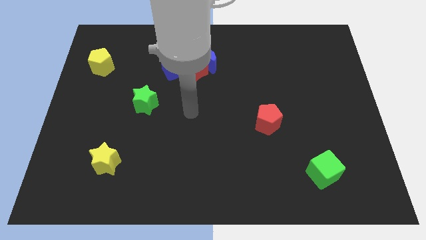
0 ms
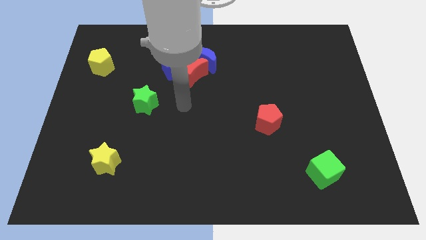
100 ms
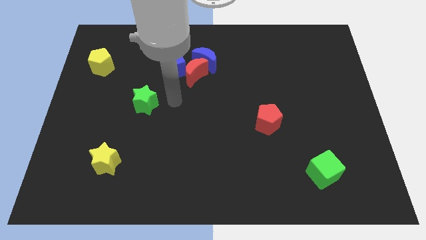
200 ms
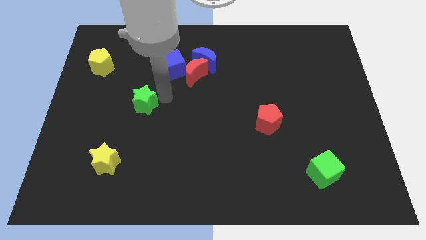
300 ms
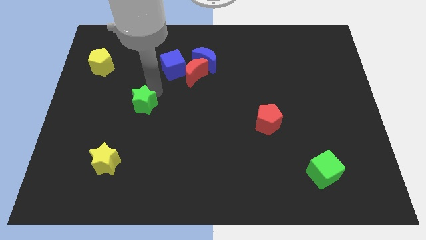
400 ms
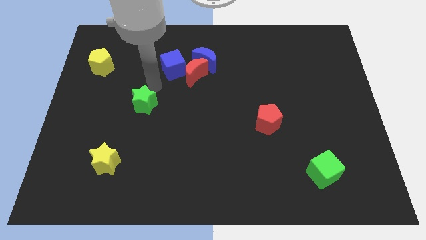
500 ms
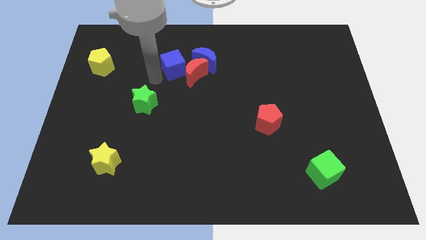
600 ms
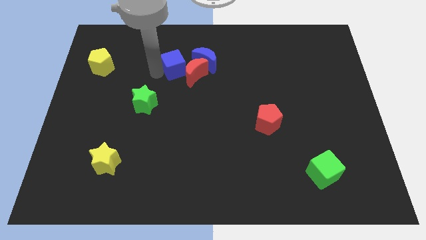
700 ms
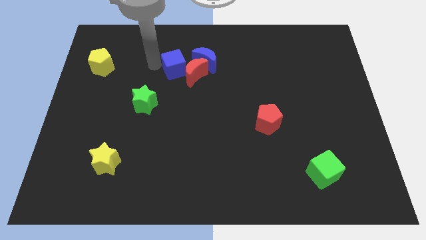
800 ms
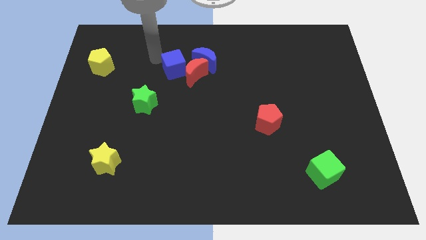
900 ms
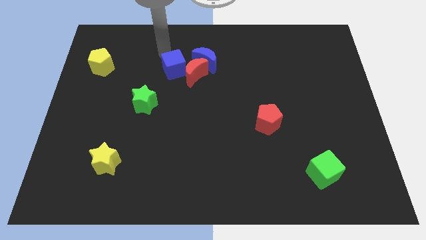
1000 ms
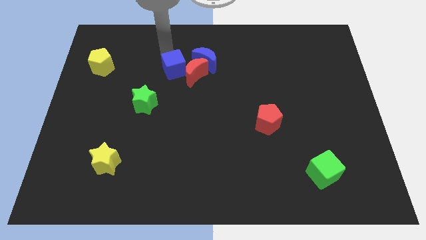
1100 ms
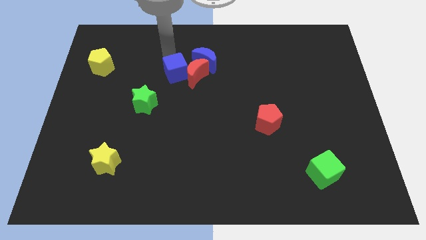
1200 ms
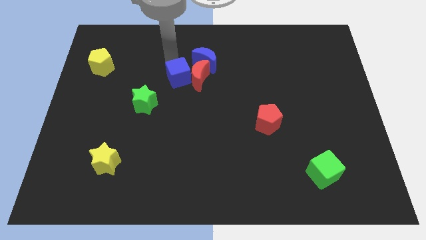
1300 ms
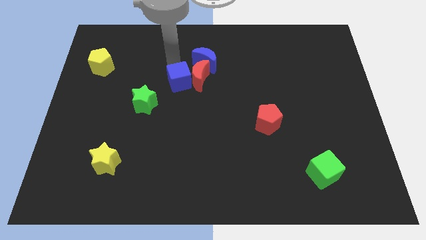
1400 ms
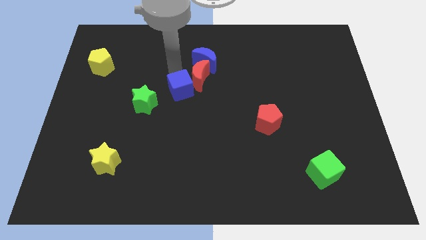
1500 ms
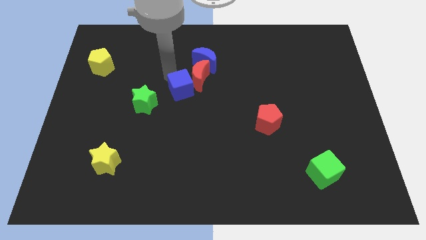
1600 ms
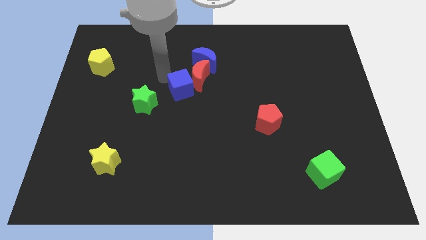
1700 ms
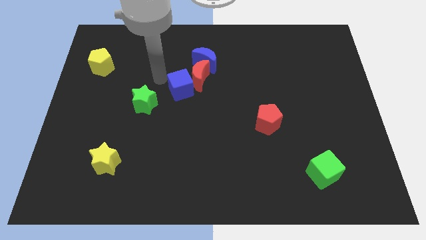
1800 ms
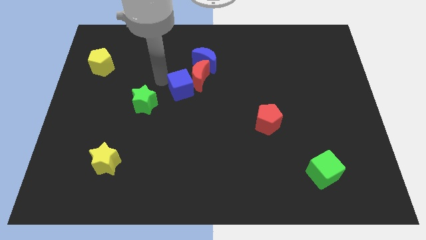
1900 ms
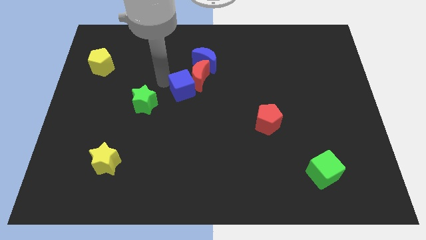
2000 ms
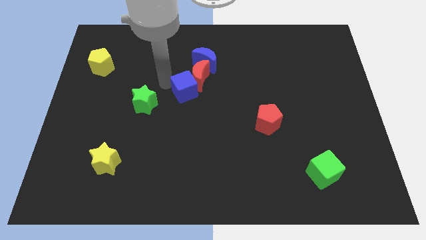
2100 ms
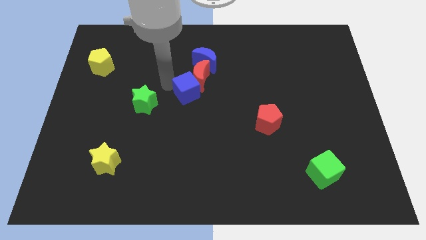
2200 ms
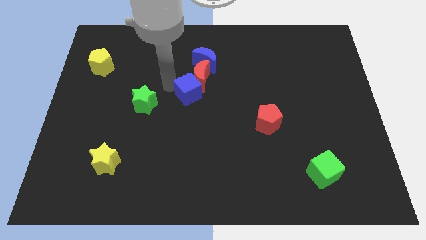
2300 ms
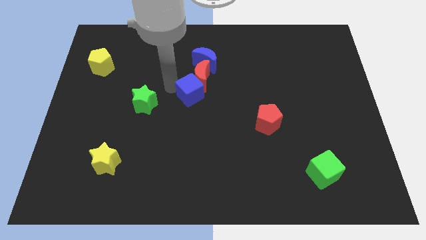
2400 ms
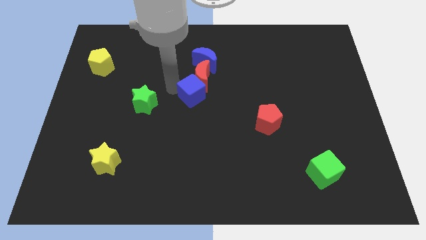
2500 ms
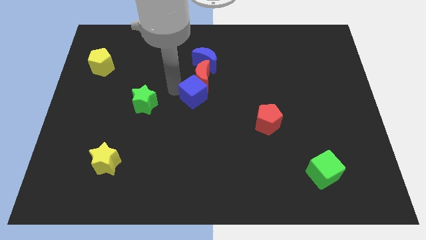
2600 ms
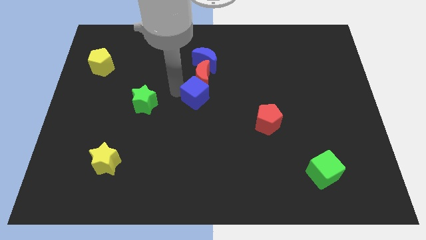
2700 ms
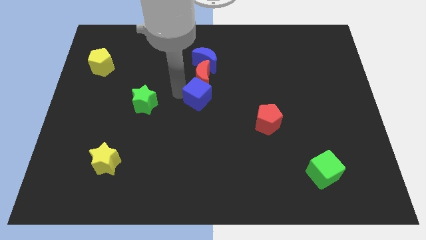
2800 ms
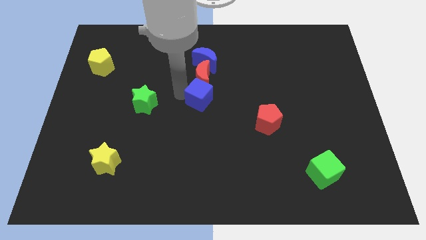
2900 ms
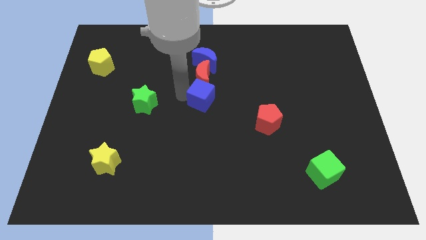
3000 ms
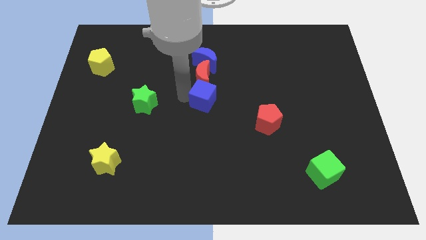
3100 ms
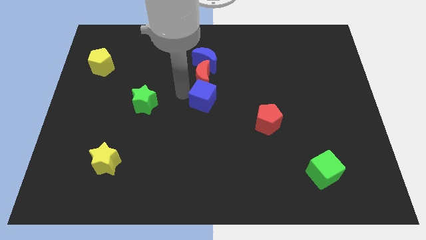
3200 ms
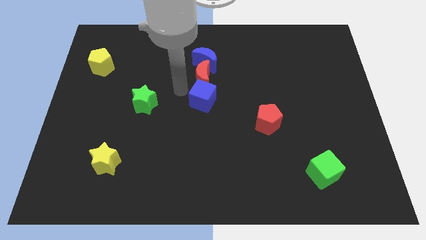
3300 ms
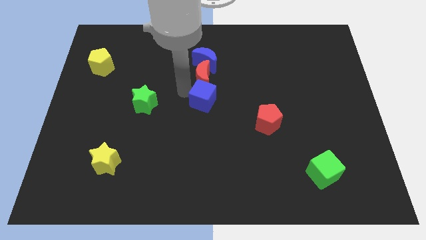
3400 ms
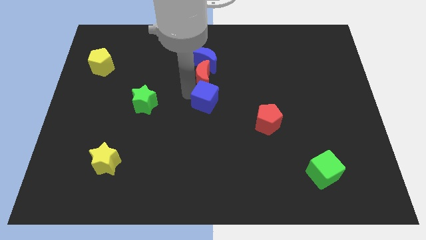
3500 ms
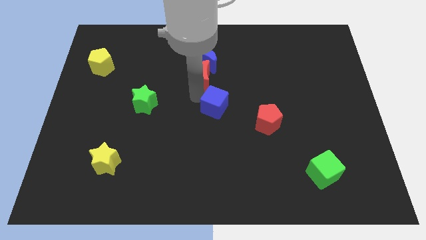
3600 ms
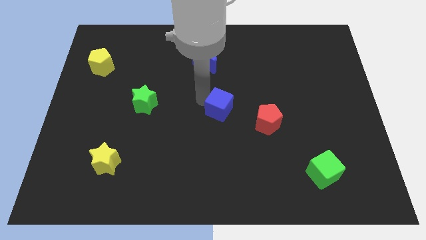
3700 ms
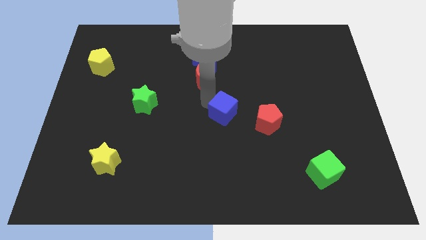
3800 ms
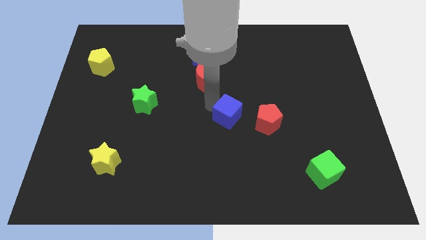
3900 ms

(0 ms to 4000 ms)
push the blue cube down and to the right

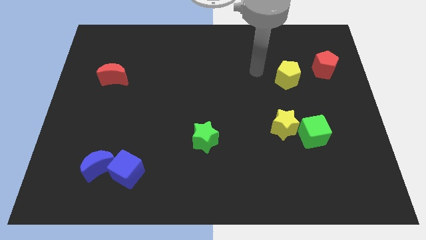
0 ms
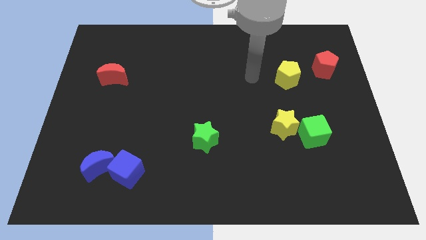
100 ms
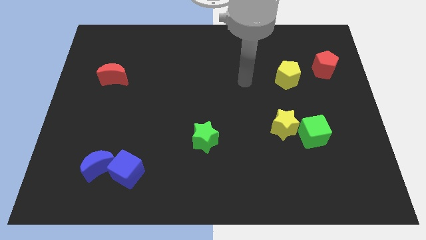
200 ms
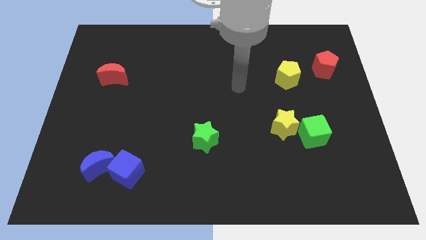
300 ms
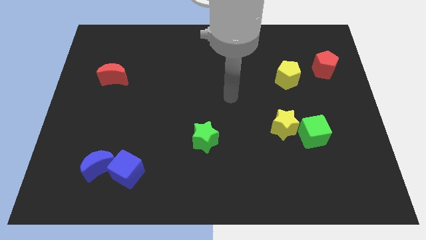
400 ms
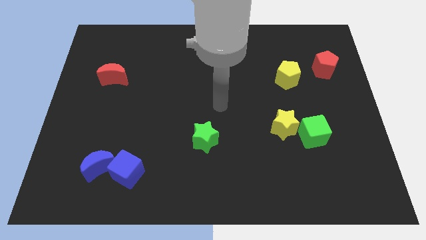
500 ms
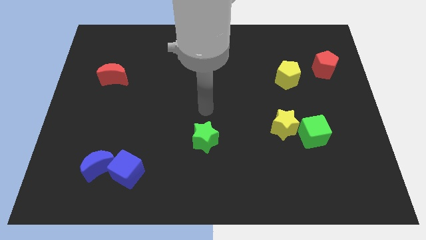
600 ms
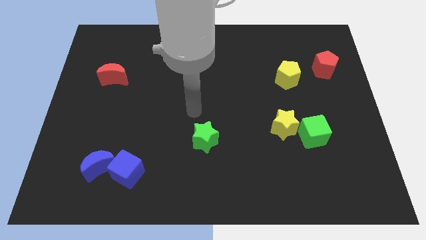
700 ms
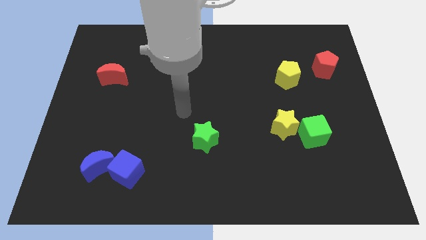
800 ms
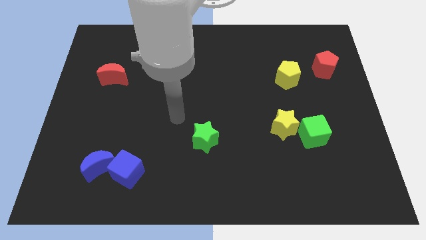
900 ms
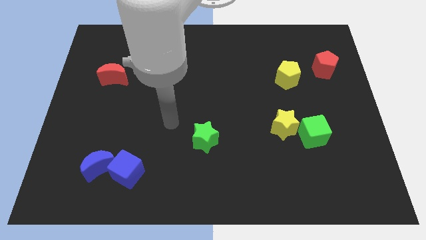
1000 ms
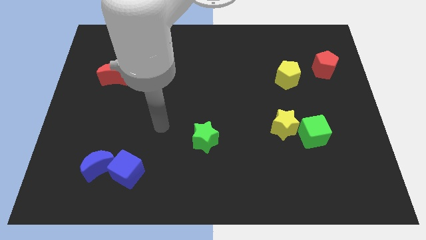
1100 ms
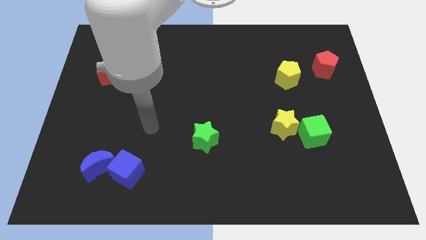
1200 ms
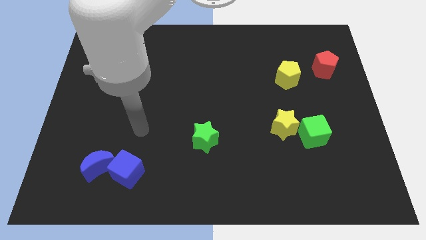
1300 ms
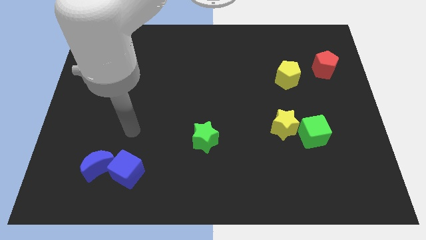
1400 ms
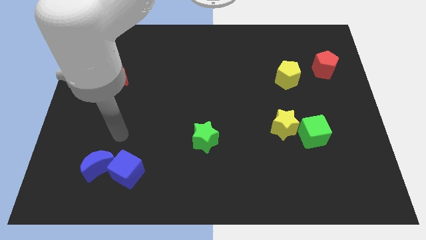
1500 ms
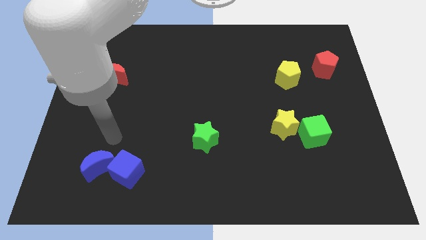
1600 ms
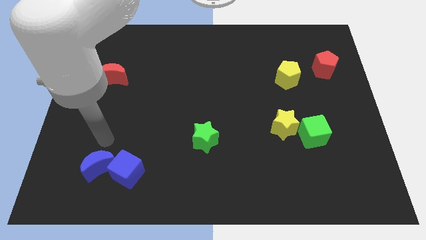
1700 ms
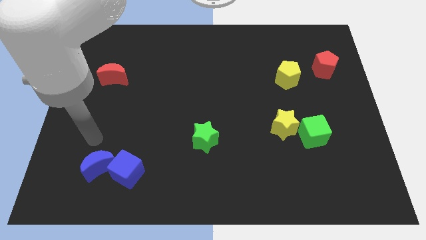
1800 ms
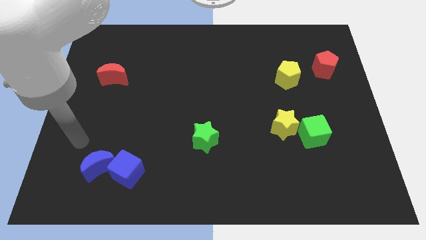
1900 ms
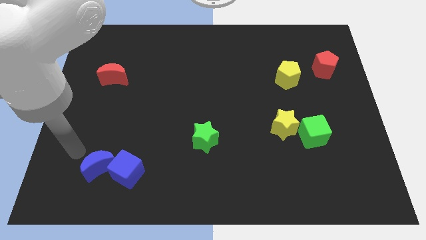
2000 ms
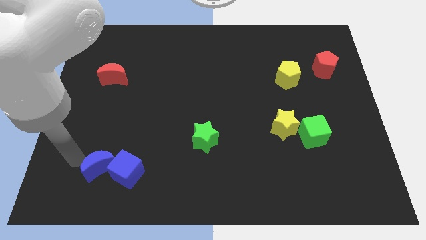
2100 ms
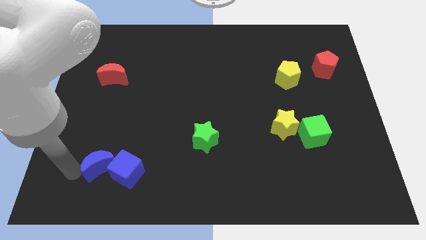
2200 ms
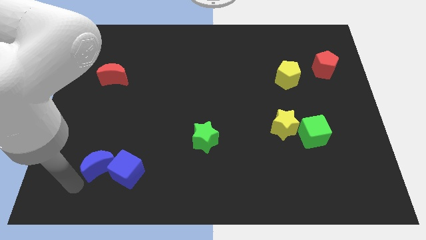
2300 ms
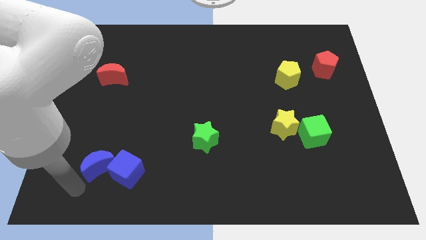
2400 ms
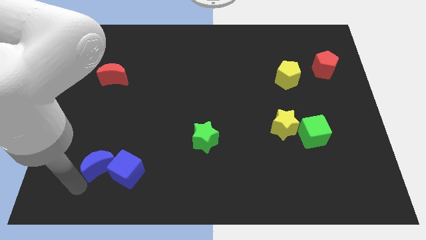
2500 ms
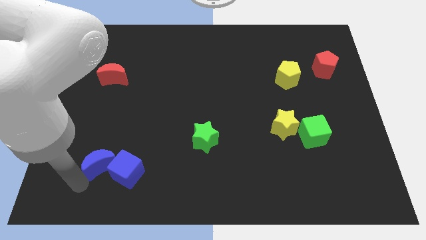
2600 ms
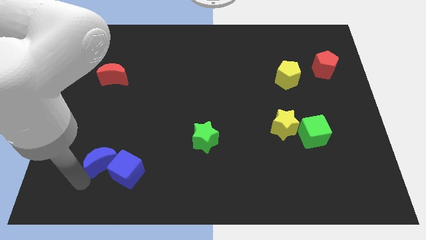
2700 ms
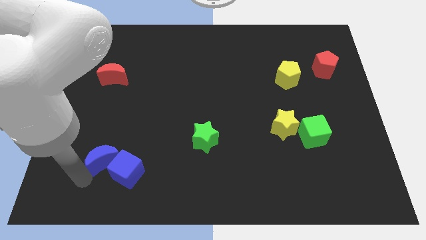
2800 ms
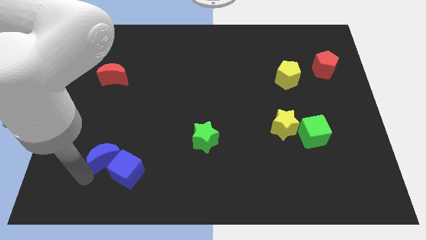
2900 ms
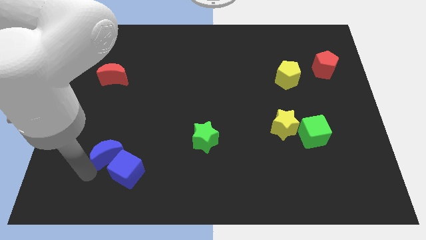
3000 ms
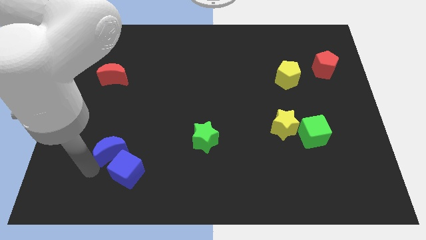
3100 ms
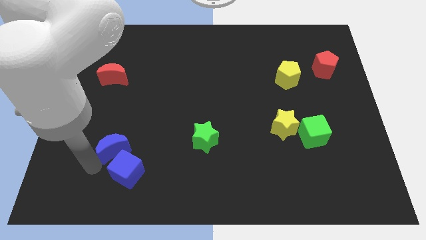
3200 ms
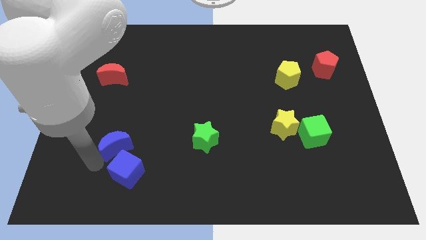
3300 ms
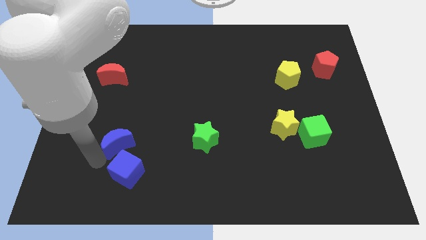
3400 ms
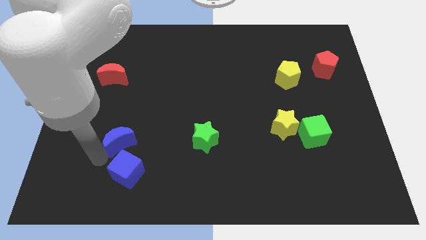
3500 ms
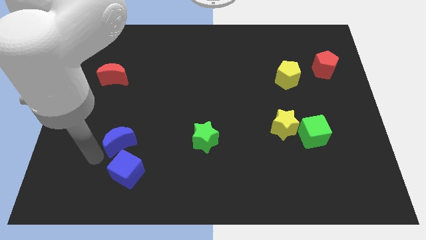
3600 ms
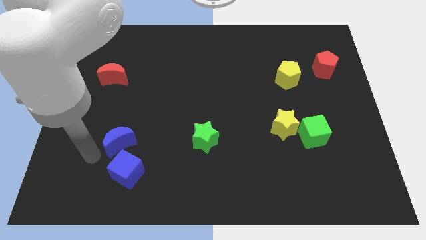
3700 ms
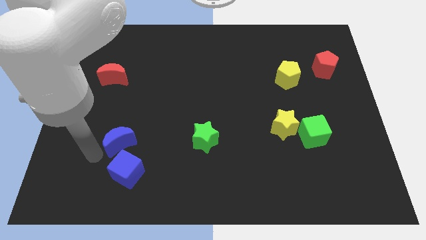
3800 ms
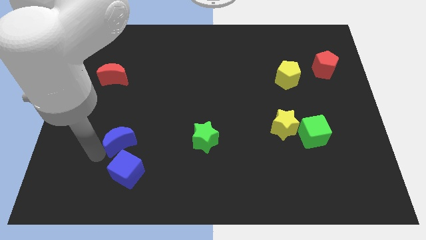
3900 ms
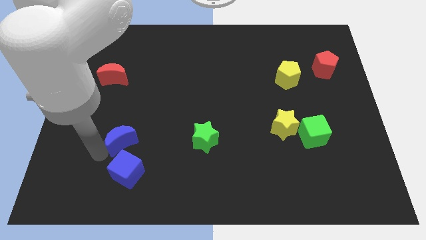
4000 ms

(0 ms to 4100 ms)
move the blue moon upwards and right diagonally somewhat
